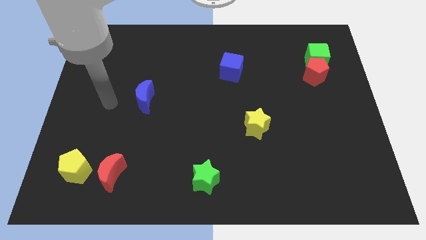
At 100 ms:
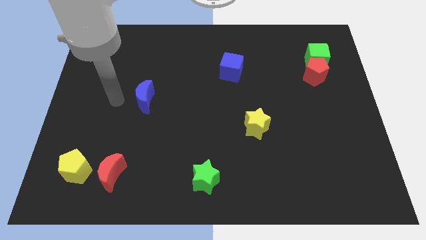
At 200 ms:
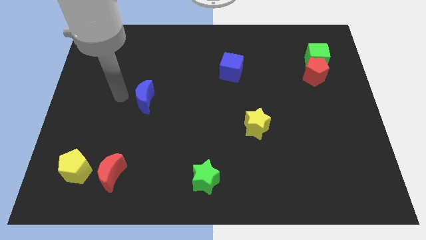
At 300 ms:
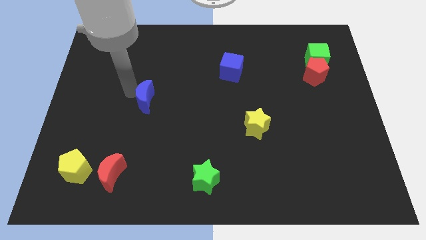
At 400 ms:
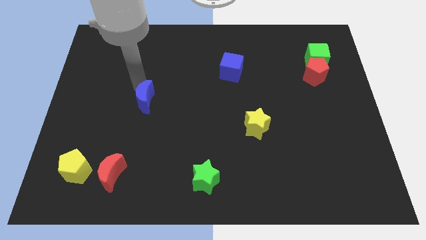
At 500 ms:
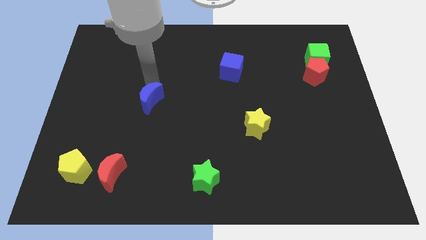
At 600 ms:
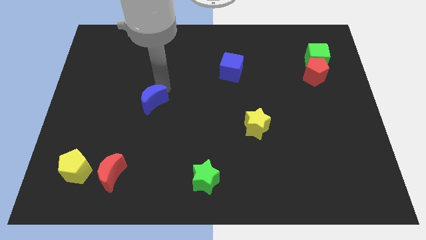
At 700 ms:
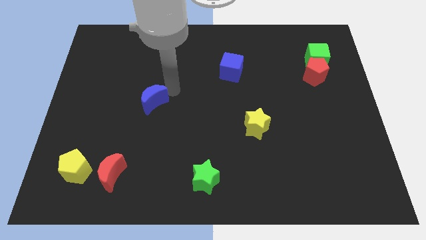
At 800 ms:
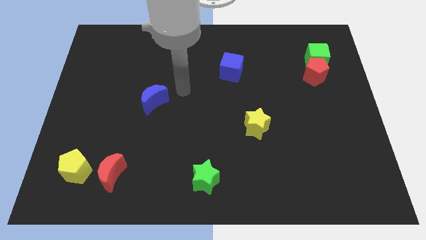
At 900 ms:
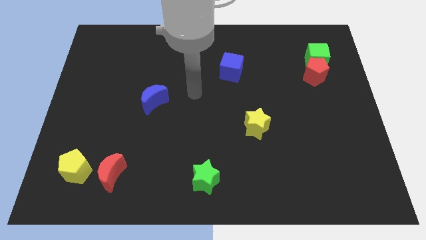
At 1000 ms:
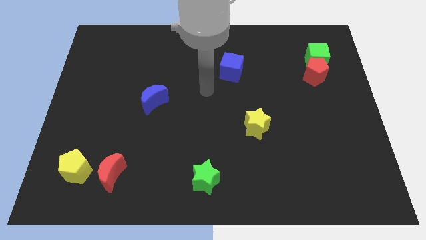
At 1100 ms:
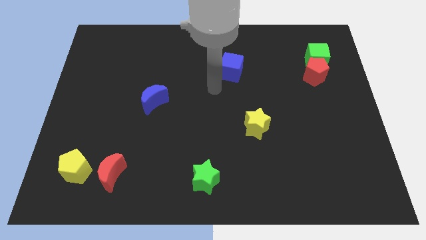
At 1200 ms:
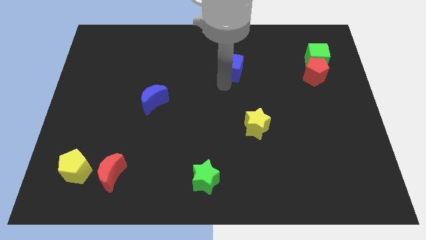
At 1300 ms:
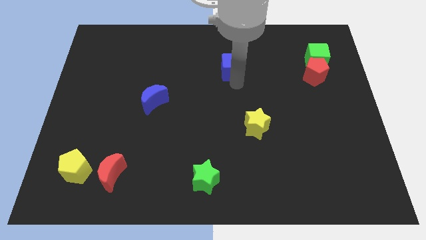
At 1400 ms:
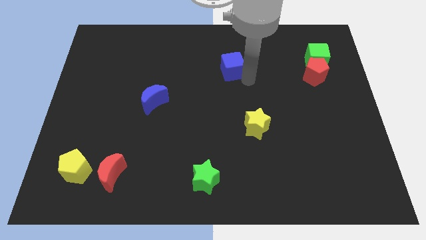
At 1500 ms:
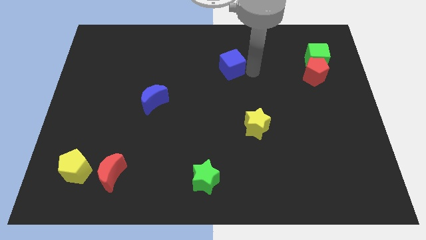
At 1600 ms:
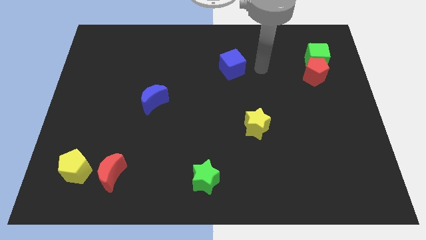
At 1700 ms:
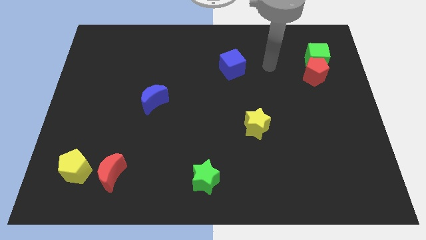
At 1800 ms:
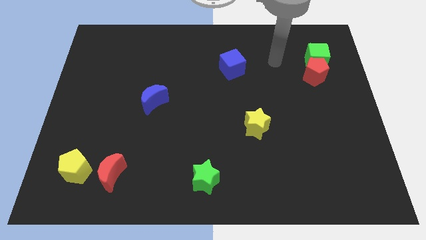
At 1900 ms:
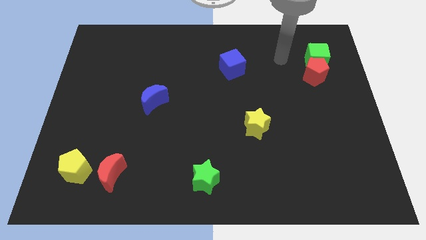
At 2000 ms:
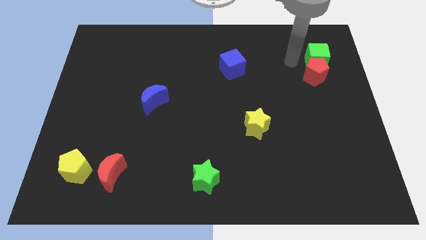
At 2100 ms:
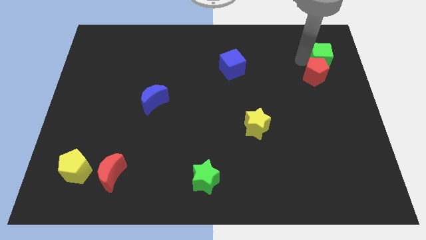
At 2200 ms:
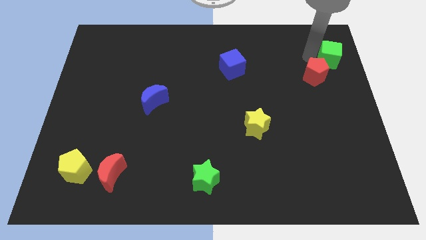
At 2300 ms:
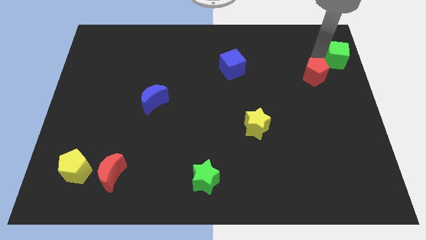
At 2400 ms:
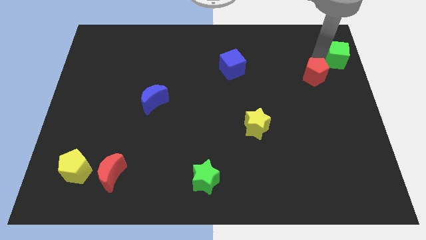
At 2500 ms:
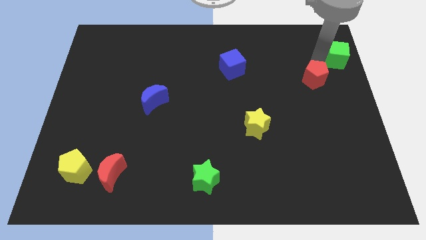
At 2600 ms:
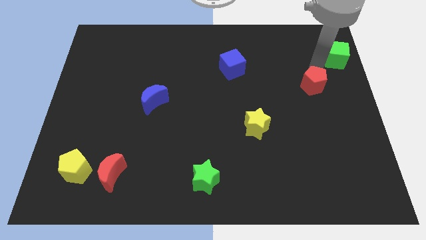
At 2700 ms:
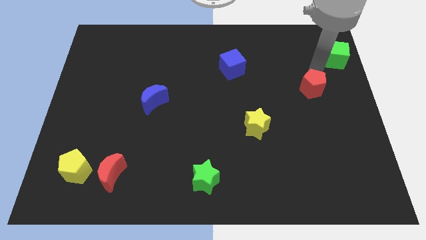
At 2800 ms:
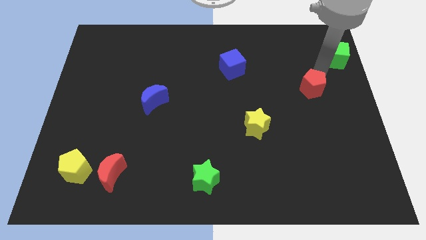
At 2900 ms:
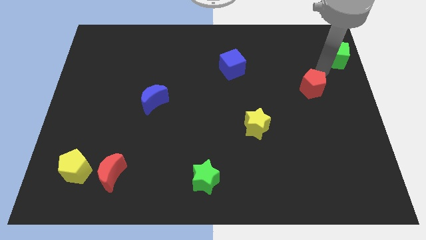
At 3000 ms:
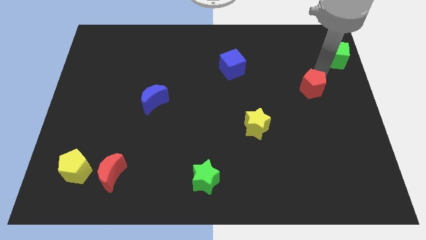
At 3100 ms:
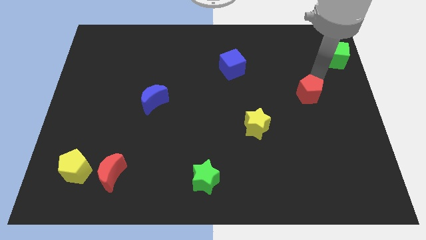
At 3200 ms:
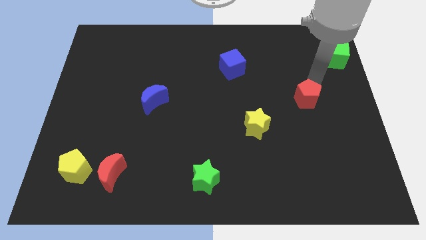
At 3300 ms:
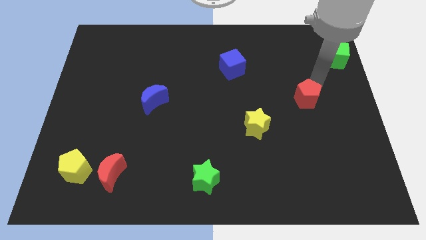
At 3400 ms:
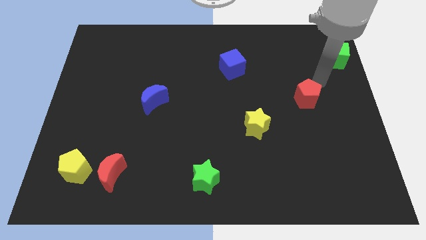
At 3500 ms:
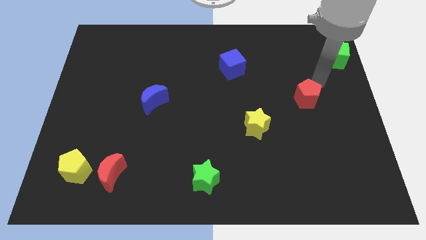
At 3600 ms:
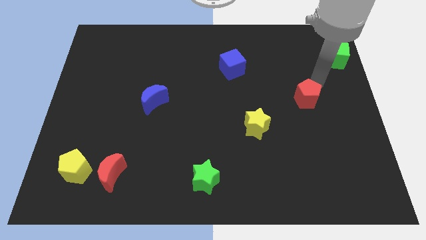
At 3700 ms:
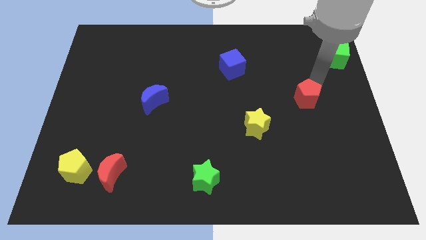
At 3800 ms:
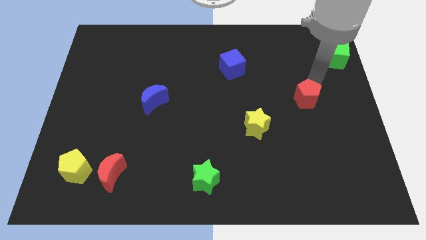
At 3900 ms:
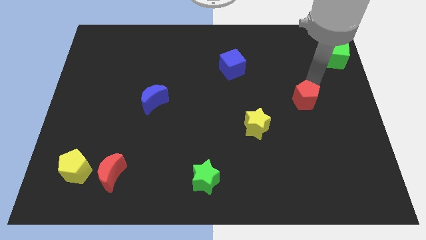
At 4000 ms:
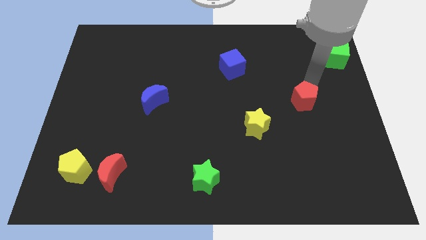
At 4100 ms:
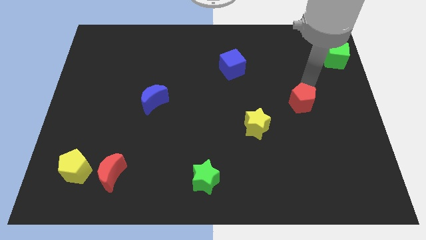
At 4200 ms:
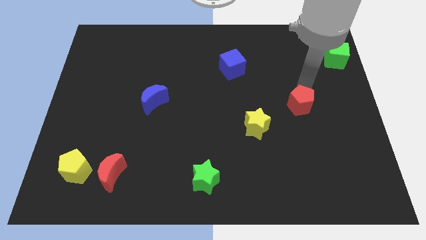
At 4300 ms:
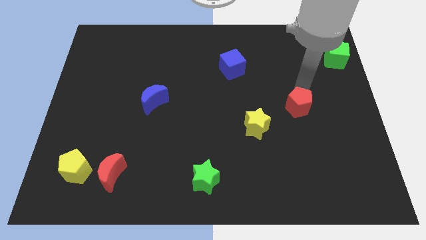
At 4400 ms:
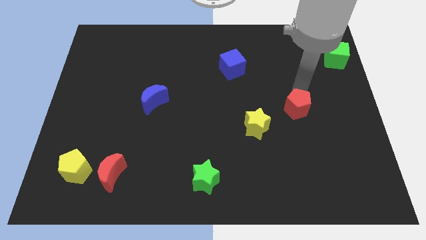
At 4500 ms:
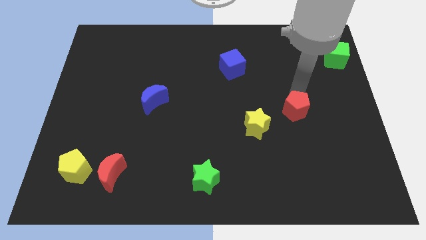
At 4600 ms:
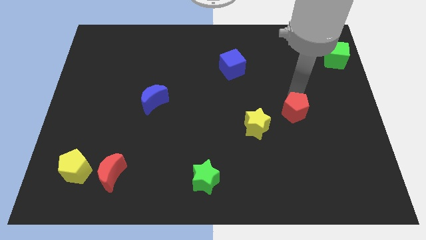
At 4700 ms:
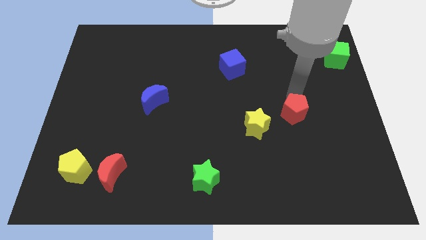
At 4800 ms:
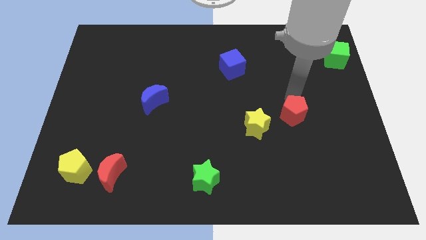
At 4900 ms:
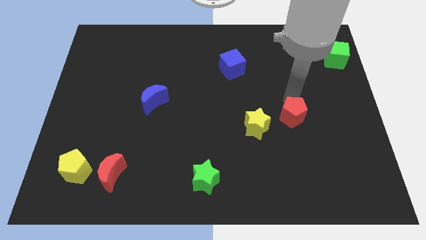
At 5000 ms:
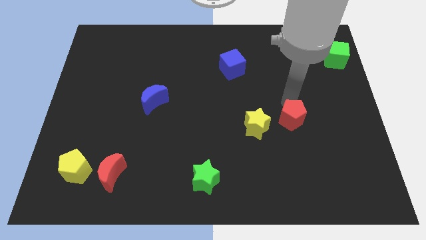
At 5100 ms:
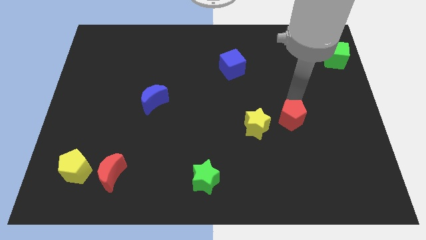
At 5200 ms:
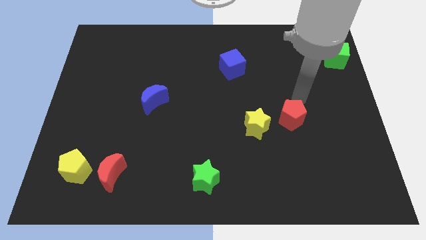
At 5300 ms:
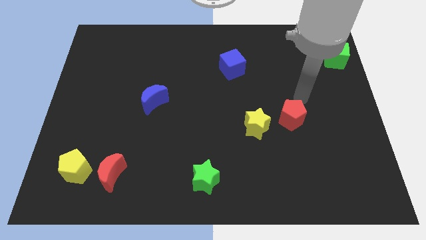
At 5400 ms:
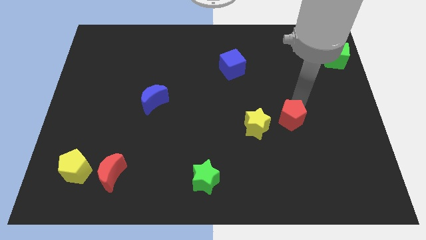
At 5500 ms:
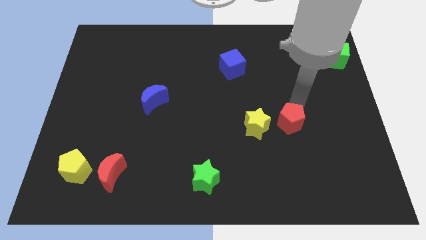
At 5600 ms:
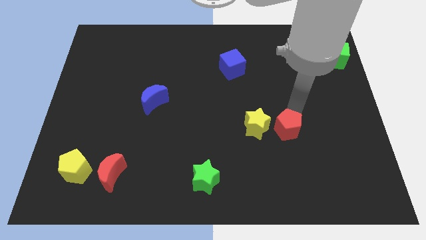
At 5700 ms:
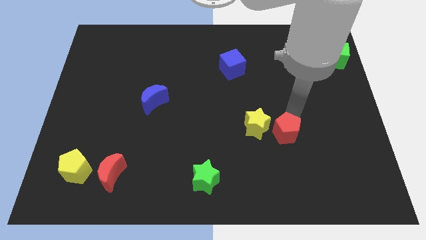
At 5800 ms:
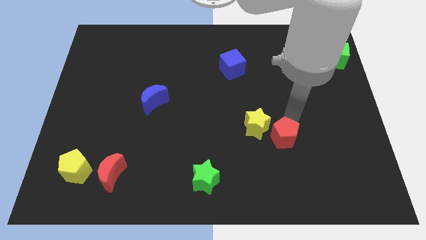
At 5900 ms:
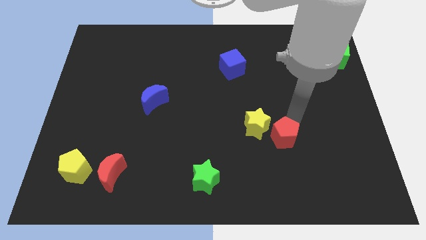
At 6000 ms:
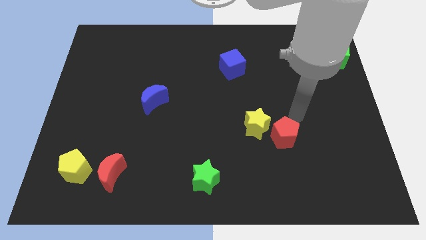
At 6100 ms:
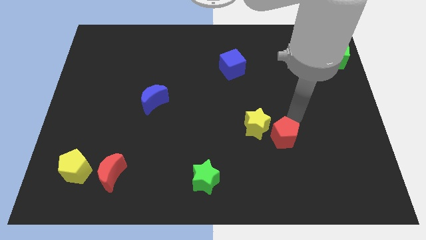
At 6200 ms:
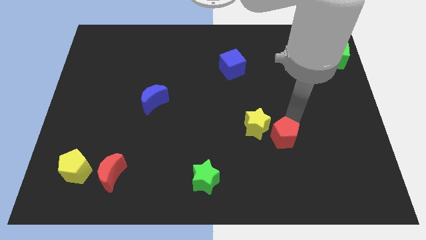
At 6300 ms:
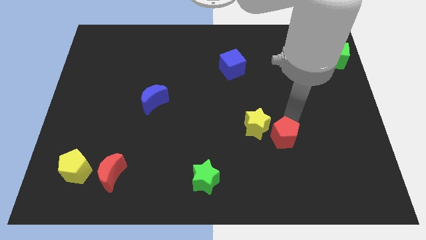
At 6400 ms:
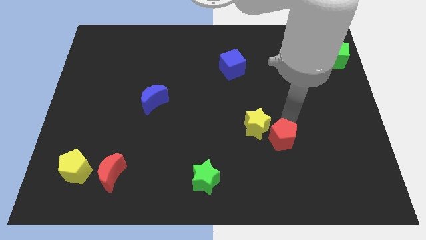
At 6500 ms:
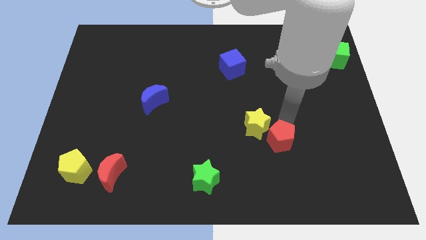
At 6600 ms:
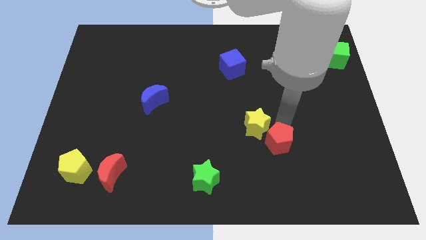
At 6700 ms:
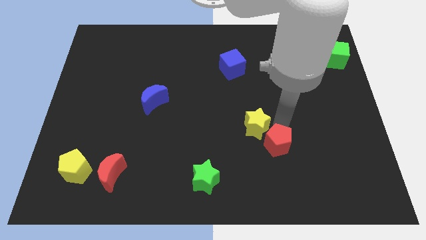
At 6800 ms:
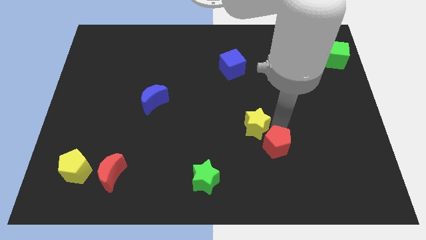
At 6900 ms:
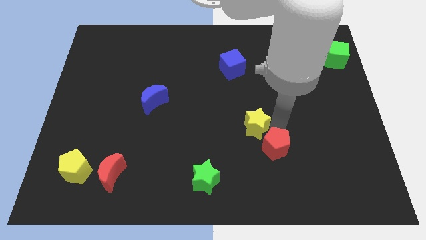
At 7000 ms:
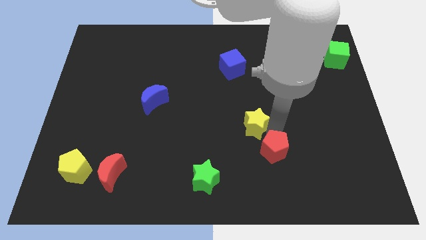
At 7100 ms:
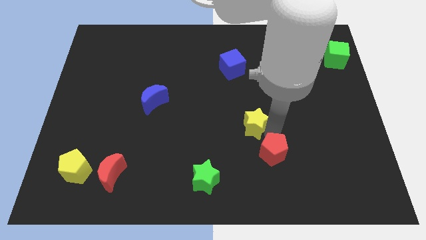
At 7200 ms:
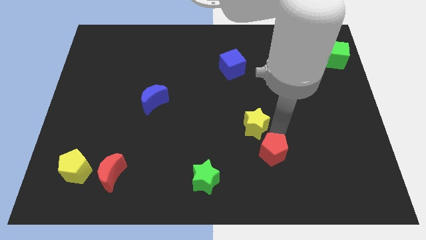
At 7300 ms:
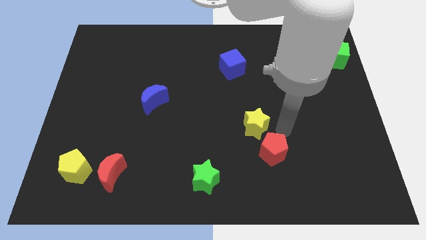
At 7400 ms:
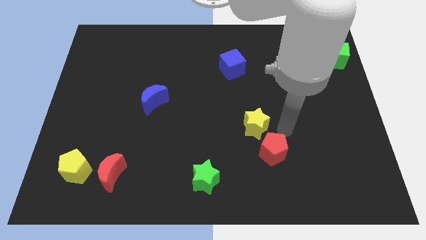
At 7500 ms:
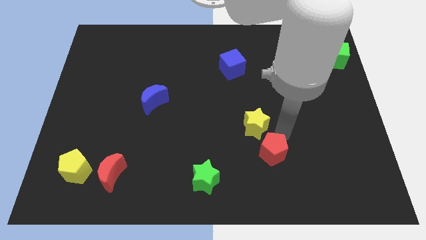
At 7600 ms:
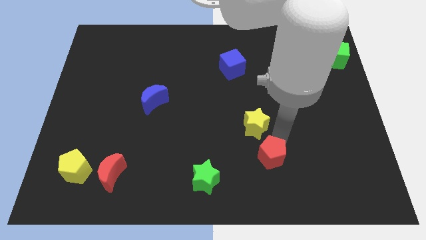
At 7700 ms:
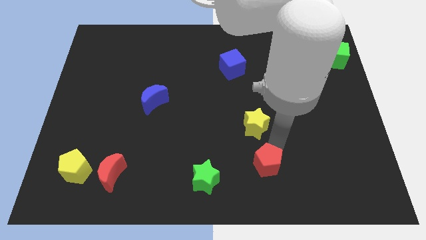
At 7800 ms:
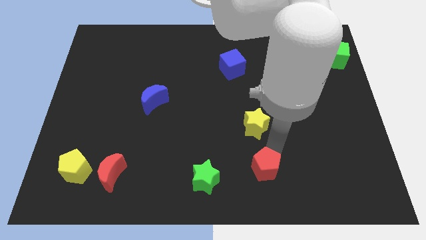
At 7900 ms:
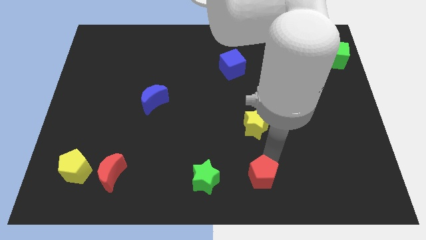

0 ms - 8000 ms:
slide the red pentagon to the bottom
